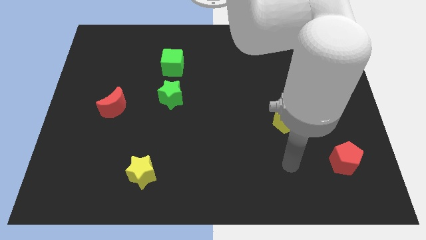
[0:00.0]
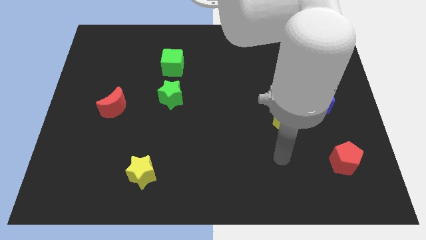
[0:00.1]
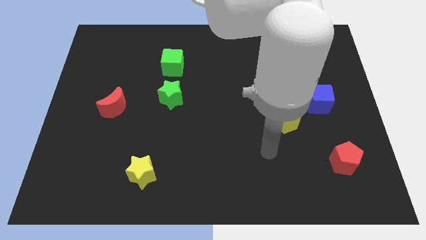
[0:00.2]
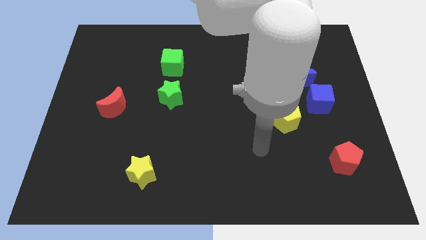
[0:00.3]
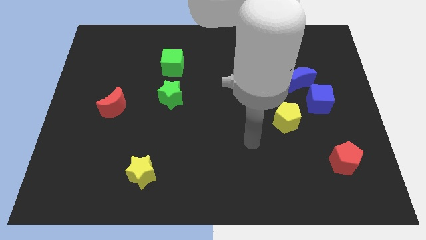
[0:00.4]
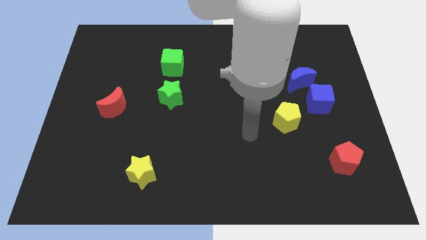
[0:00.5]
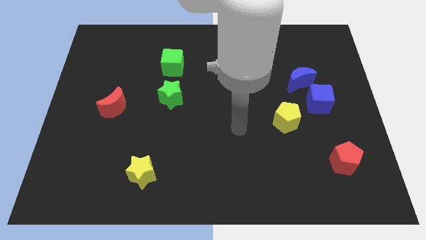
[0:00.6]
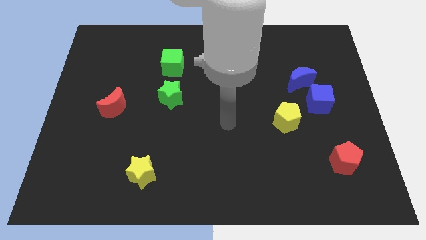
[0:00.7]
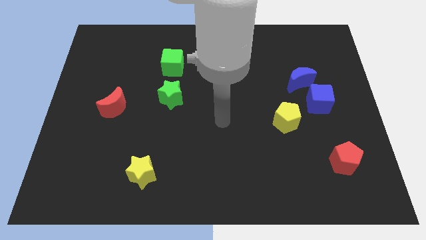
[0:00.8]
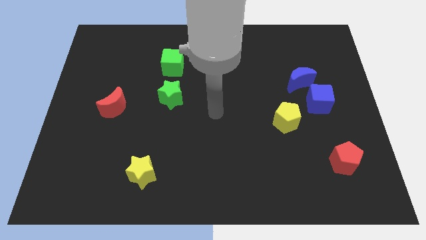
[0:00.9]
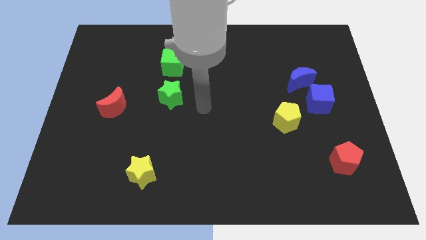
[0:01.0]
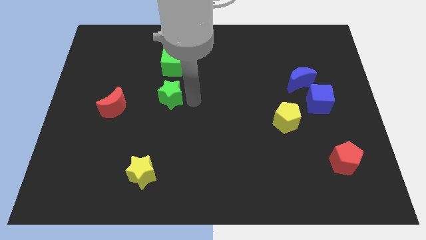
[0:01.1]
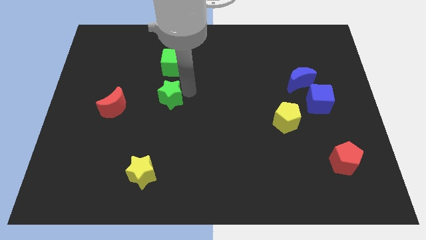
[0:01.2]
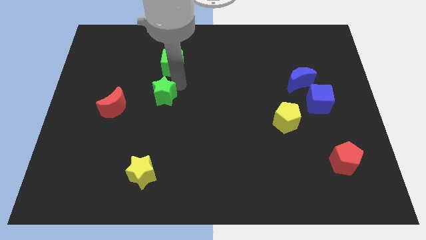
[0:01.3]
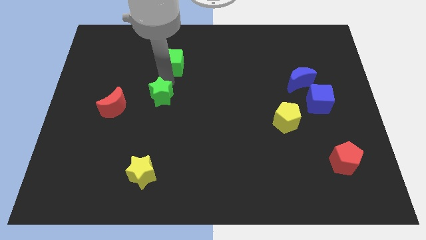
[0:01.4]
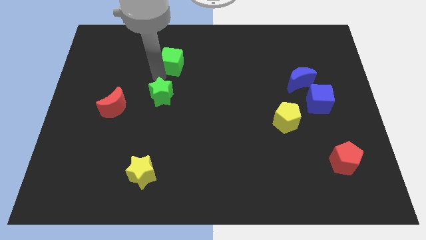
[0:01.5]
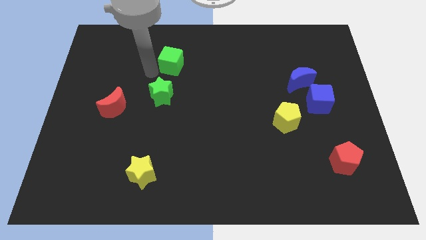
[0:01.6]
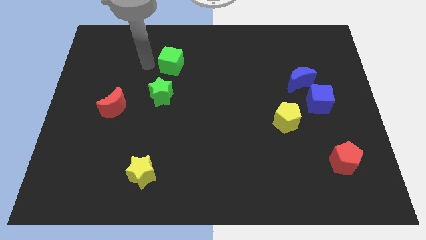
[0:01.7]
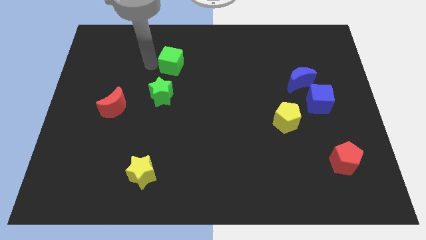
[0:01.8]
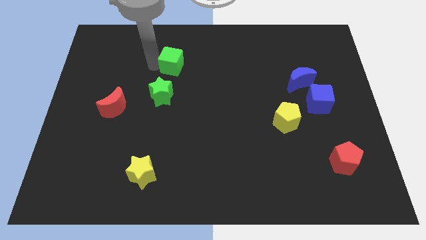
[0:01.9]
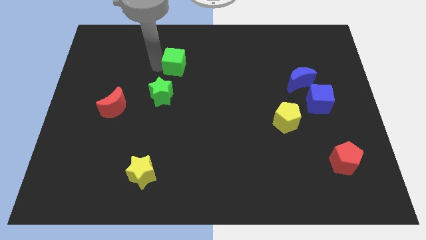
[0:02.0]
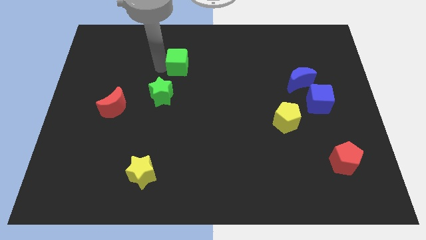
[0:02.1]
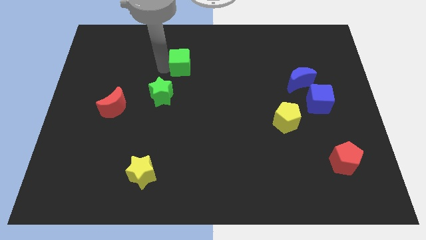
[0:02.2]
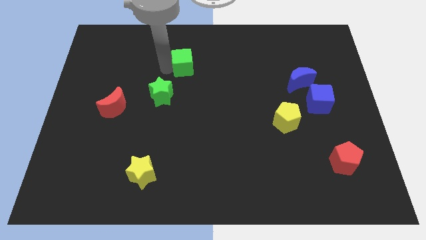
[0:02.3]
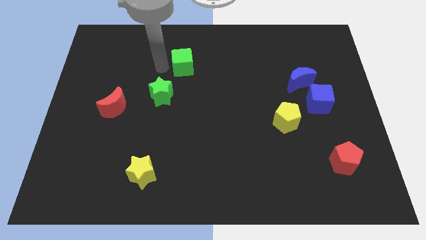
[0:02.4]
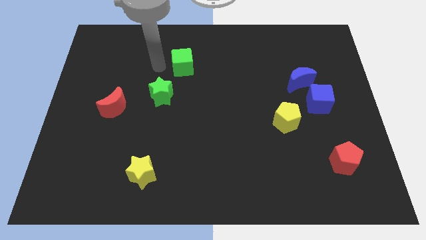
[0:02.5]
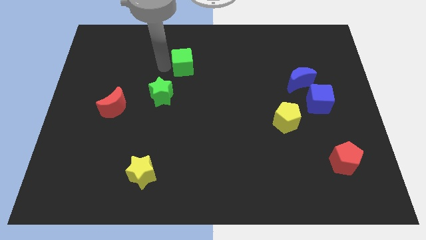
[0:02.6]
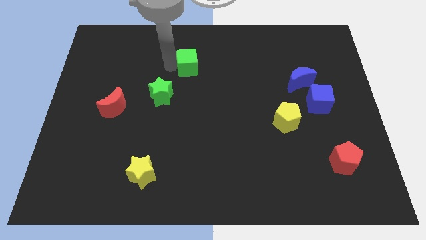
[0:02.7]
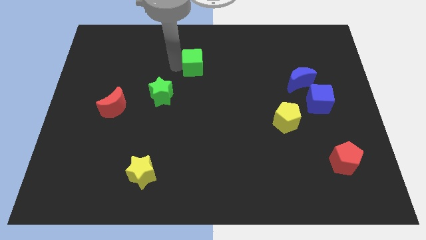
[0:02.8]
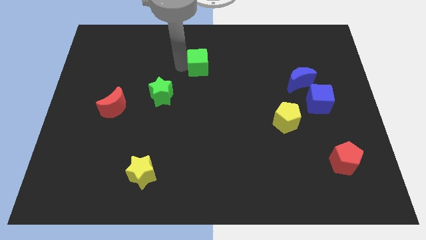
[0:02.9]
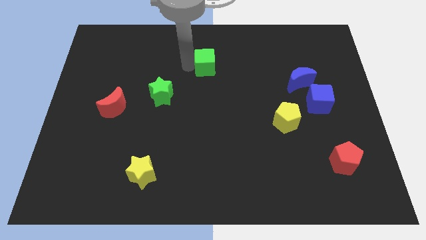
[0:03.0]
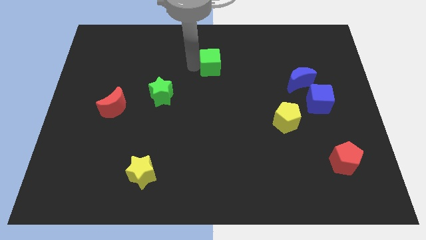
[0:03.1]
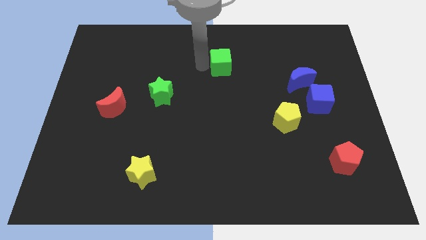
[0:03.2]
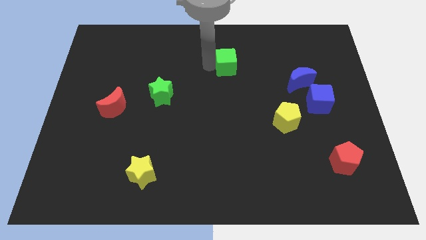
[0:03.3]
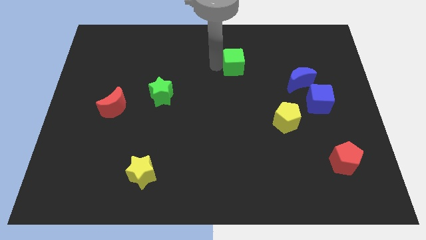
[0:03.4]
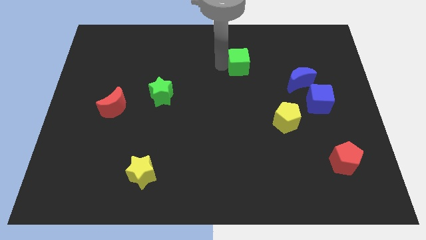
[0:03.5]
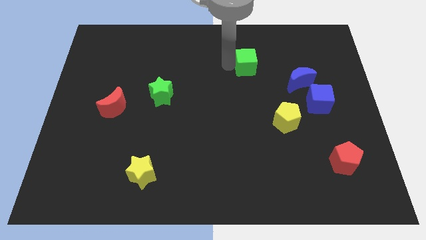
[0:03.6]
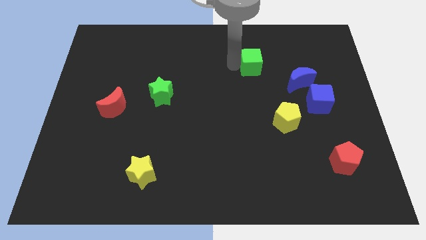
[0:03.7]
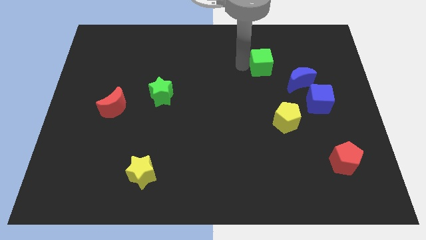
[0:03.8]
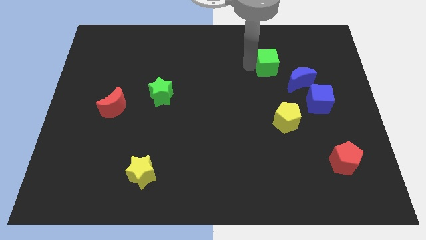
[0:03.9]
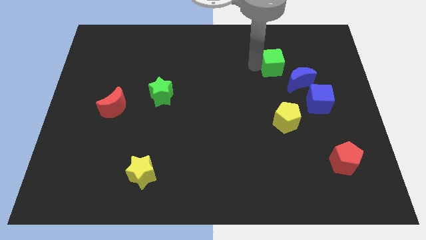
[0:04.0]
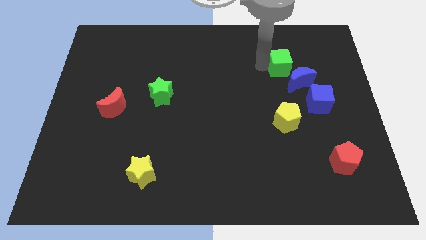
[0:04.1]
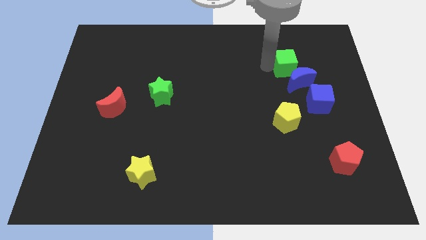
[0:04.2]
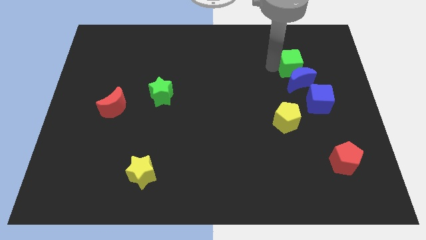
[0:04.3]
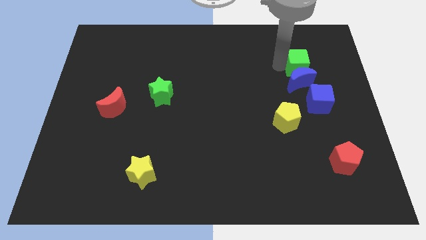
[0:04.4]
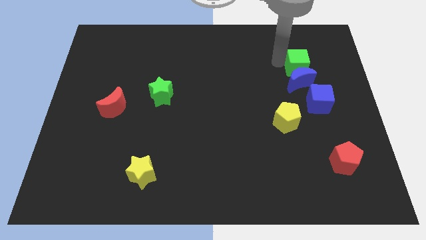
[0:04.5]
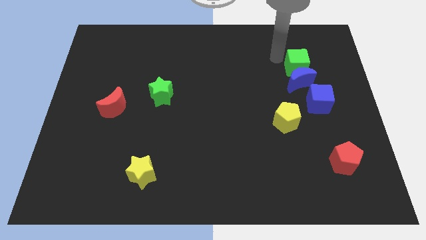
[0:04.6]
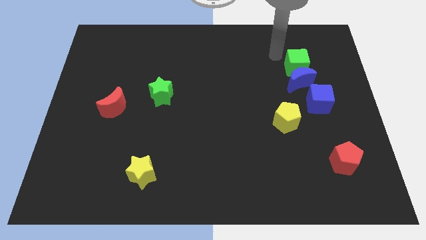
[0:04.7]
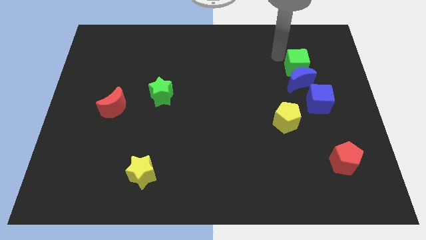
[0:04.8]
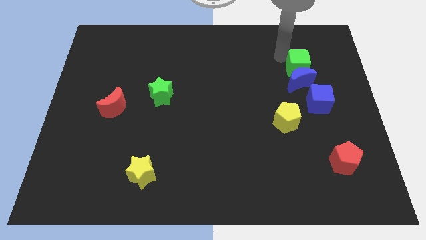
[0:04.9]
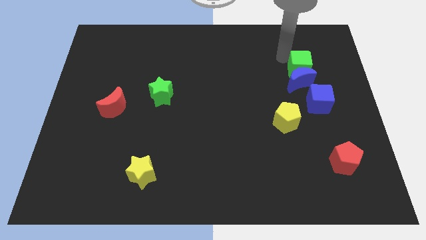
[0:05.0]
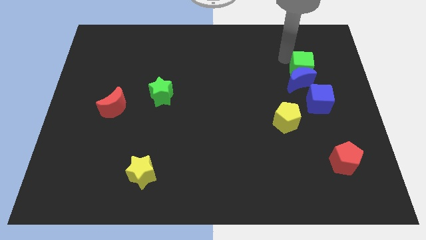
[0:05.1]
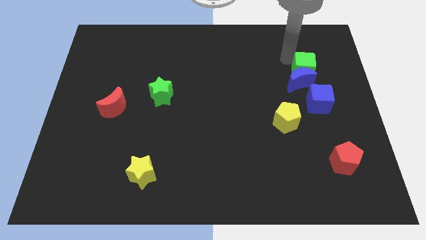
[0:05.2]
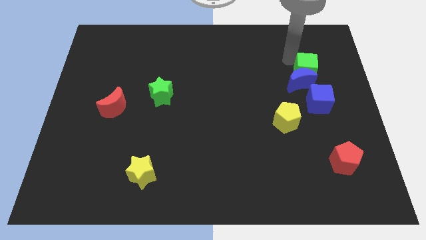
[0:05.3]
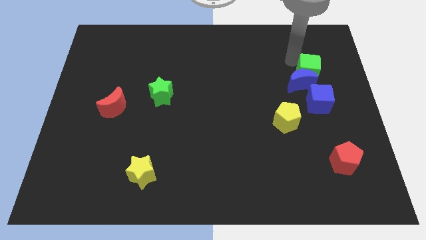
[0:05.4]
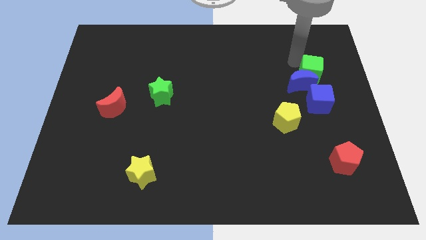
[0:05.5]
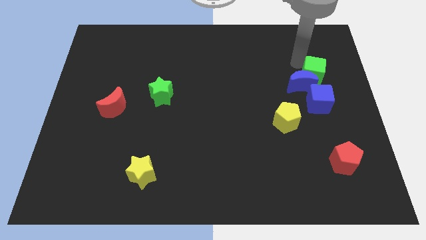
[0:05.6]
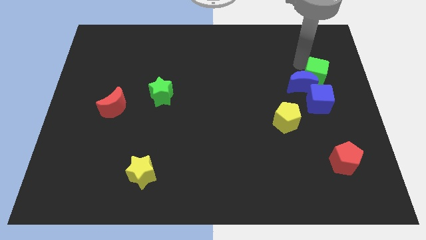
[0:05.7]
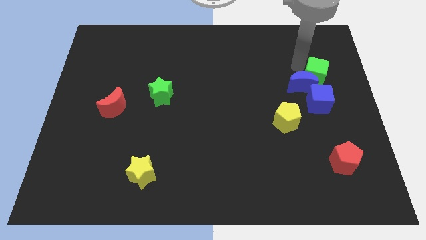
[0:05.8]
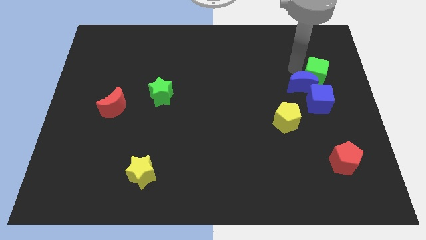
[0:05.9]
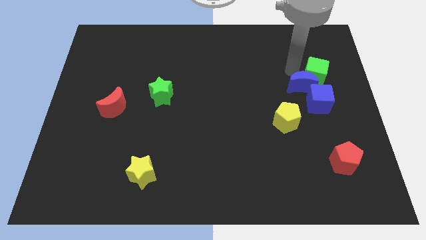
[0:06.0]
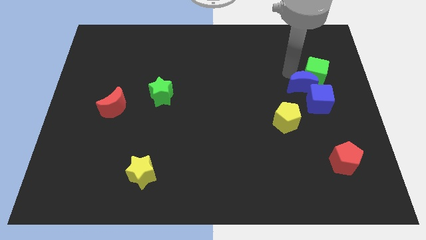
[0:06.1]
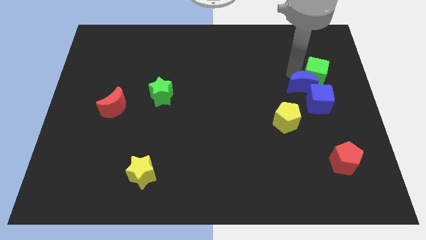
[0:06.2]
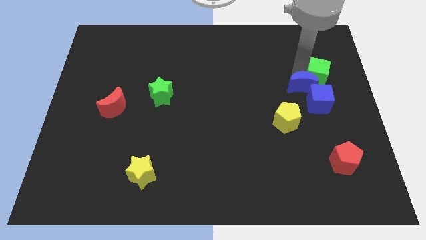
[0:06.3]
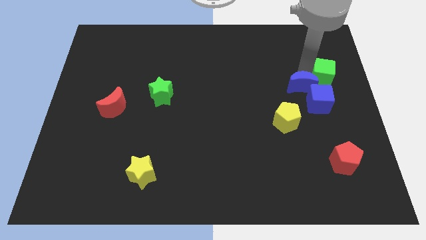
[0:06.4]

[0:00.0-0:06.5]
move the green cube to the right side of the board

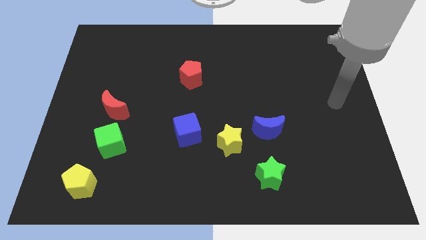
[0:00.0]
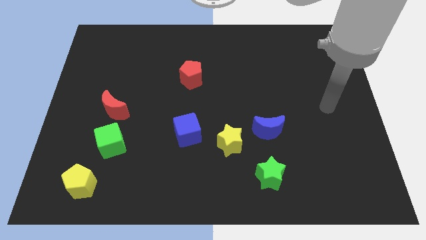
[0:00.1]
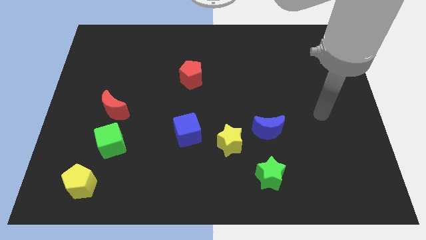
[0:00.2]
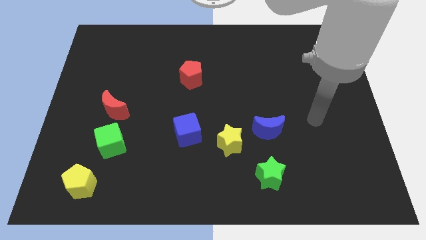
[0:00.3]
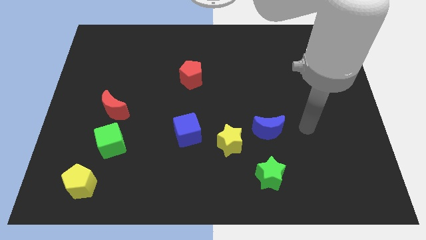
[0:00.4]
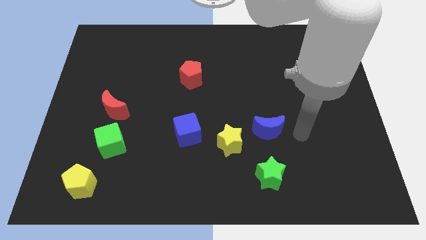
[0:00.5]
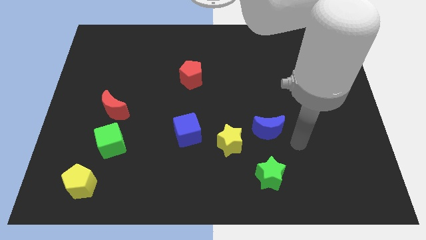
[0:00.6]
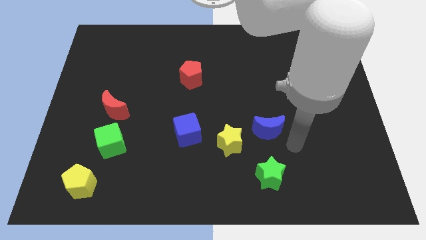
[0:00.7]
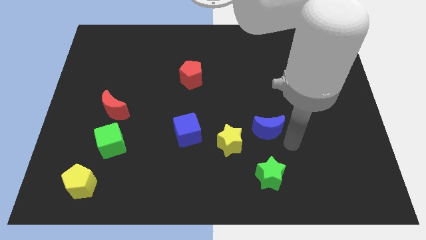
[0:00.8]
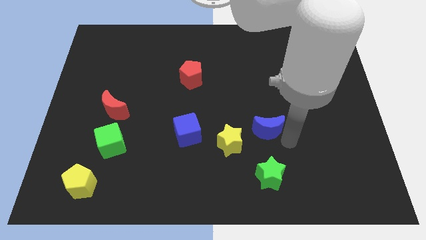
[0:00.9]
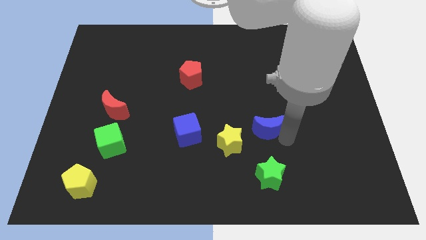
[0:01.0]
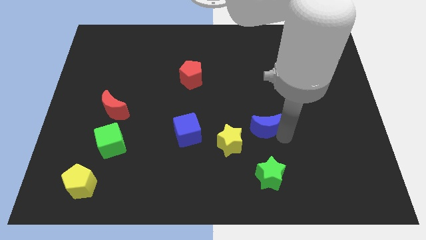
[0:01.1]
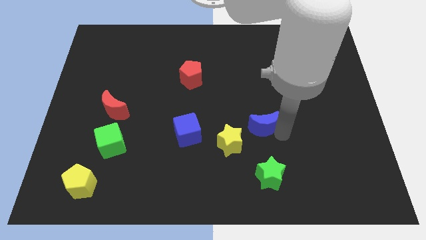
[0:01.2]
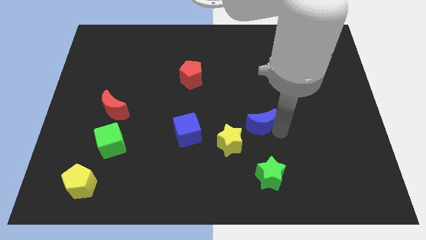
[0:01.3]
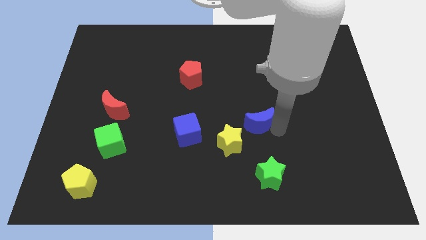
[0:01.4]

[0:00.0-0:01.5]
put the blue moon to the center
